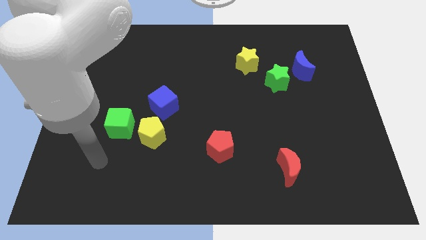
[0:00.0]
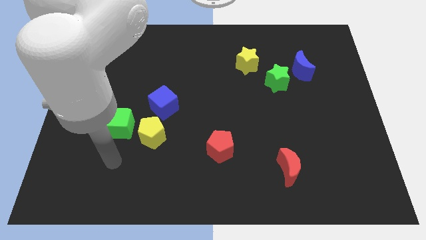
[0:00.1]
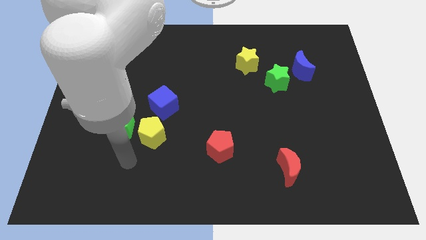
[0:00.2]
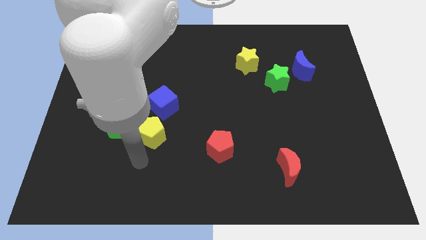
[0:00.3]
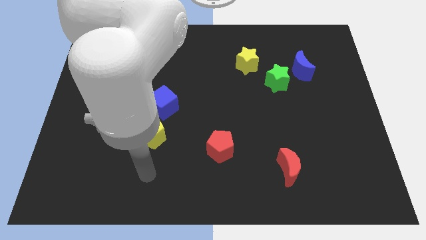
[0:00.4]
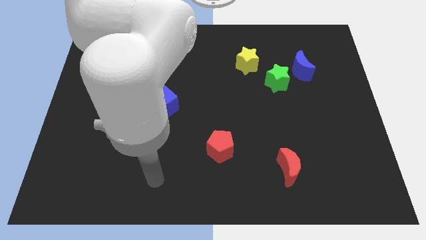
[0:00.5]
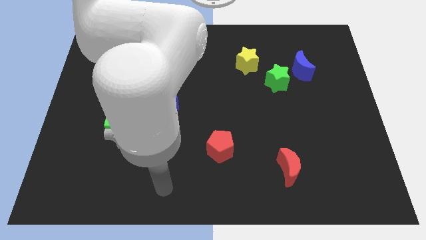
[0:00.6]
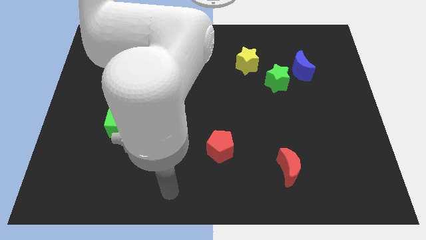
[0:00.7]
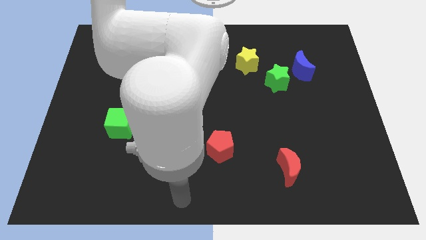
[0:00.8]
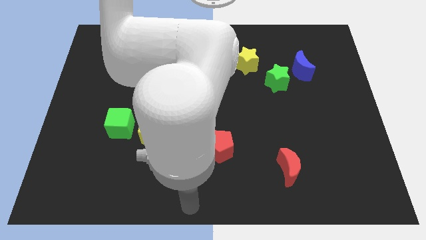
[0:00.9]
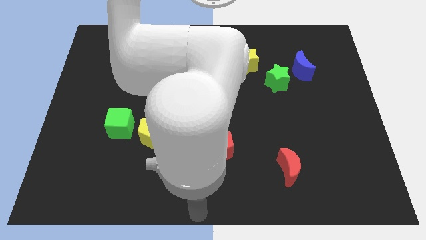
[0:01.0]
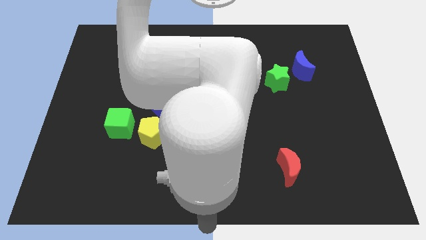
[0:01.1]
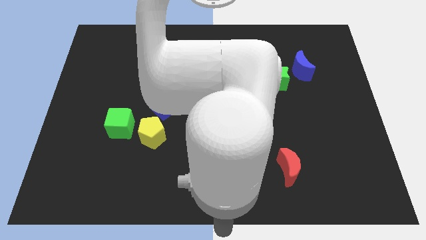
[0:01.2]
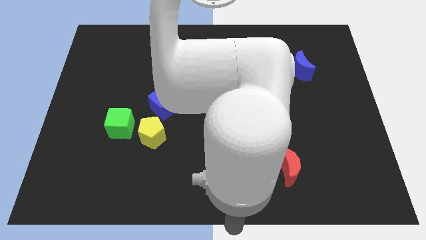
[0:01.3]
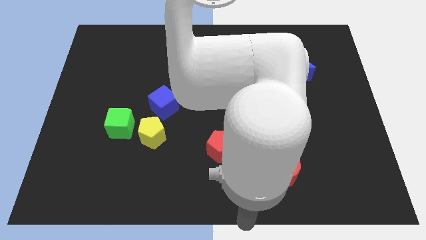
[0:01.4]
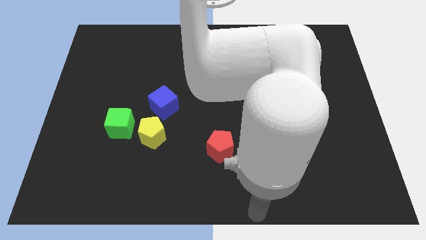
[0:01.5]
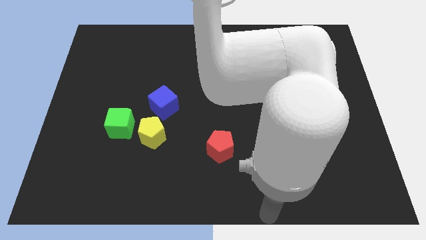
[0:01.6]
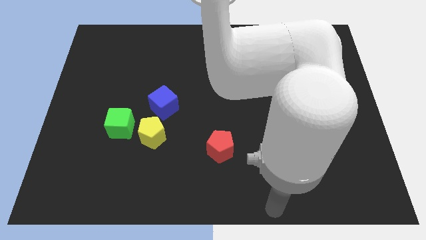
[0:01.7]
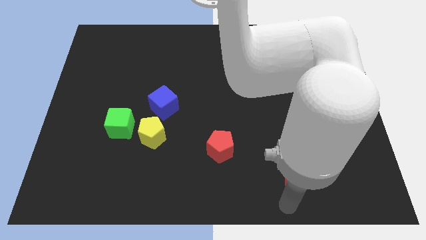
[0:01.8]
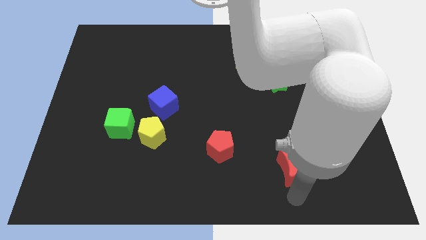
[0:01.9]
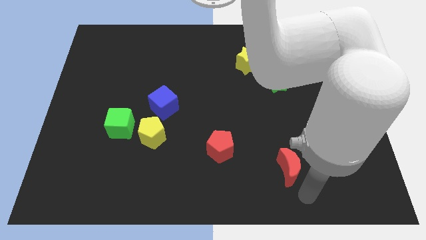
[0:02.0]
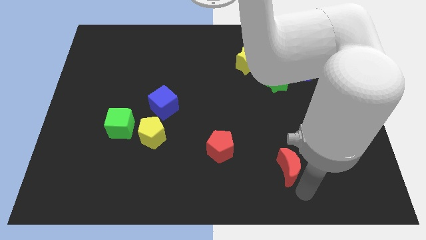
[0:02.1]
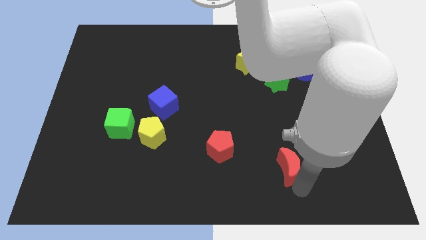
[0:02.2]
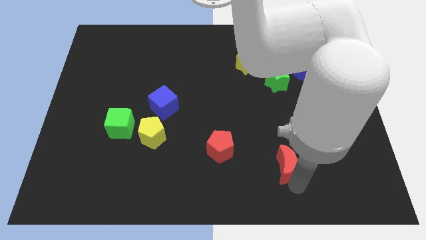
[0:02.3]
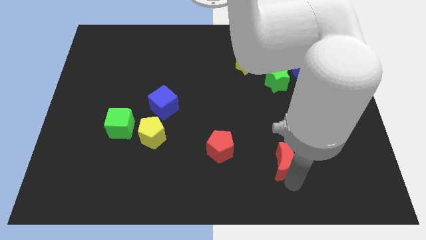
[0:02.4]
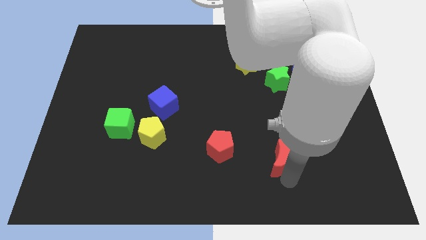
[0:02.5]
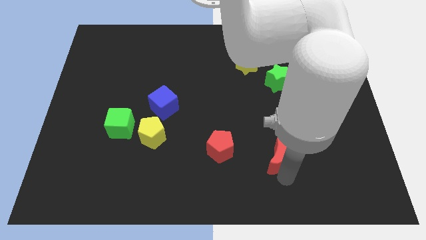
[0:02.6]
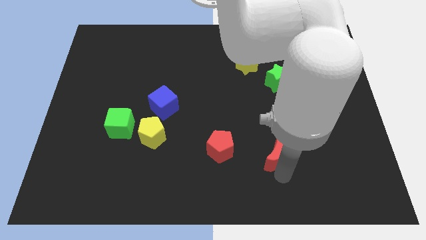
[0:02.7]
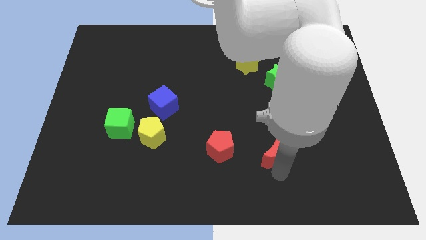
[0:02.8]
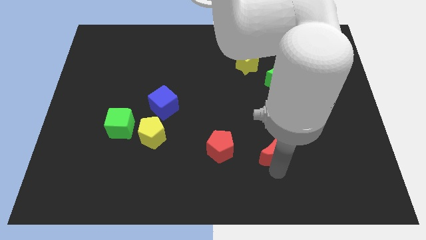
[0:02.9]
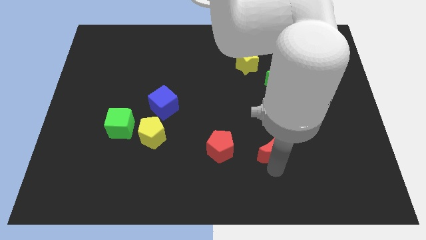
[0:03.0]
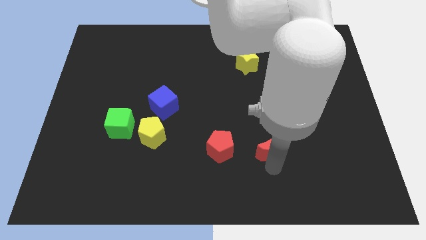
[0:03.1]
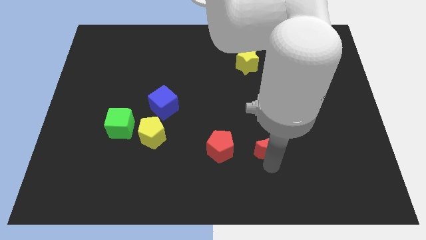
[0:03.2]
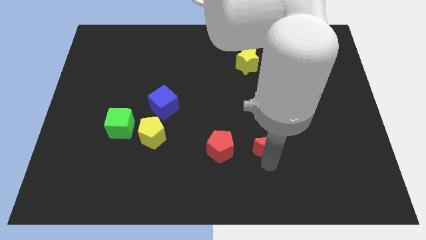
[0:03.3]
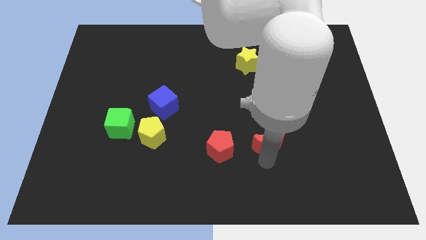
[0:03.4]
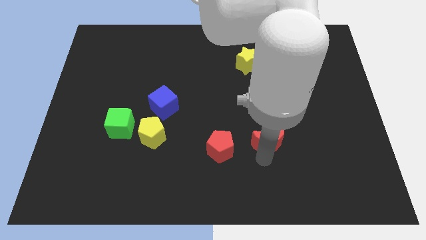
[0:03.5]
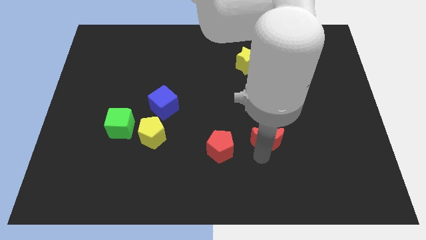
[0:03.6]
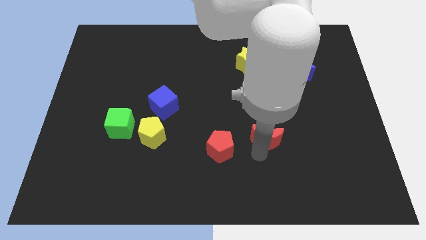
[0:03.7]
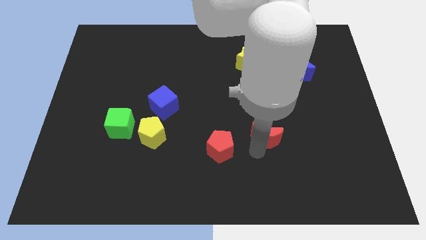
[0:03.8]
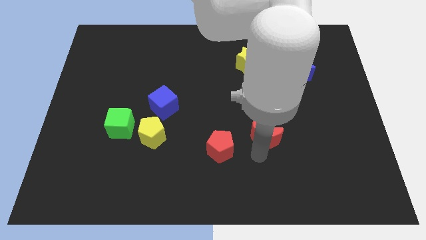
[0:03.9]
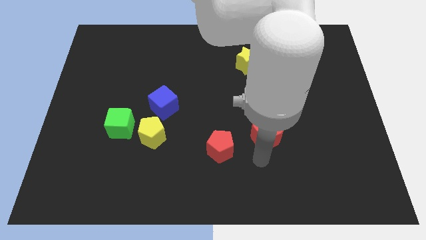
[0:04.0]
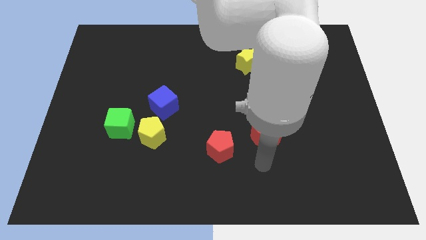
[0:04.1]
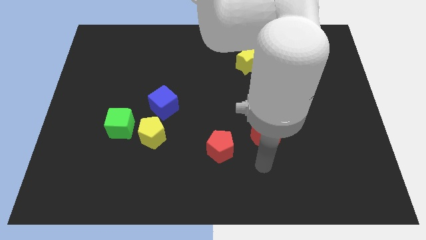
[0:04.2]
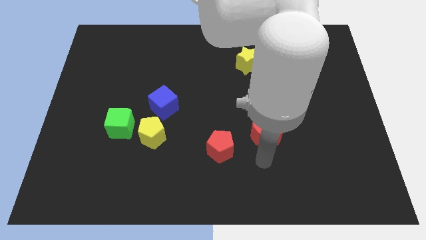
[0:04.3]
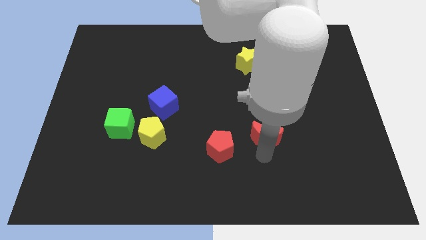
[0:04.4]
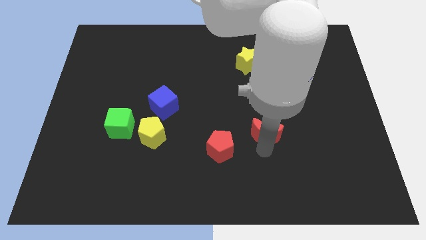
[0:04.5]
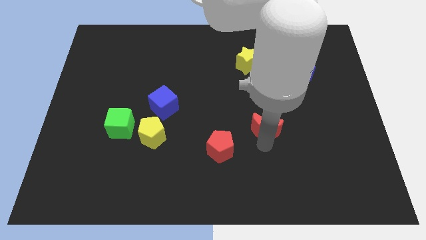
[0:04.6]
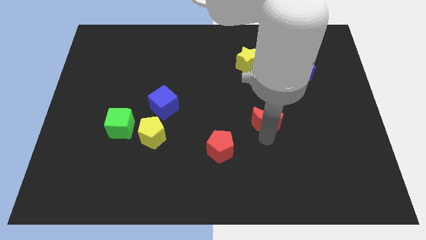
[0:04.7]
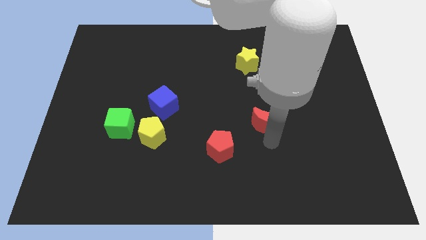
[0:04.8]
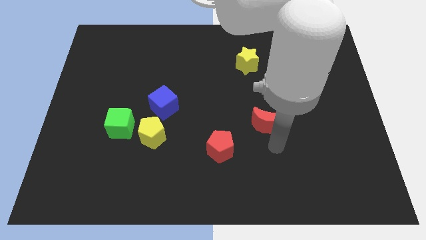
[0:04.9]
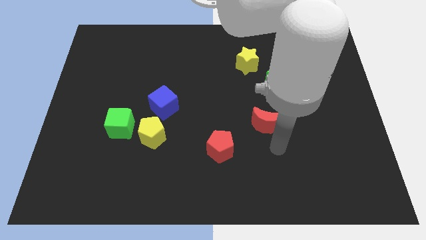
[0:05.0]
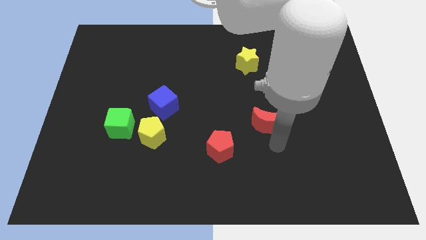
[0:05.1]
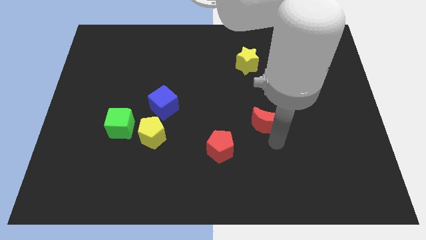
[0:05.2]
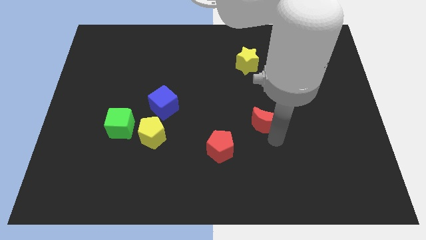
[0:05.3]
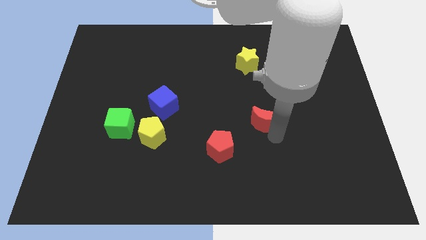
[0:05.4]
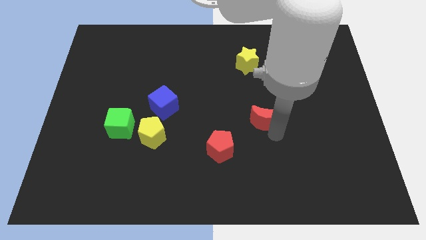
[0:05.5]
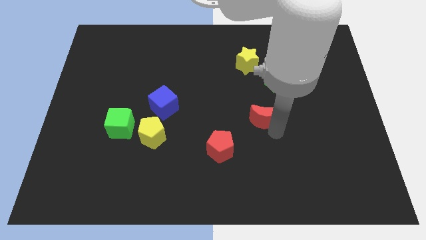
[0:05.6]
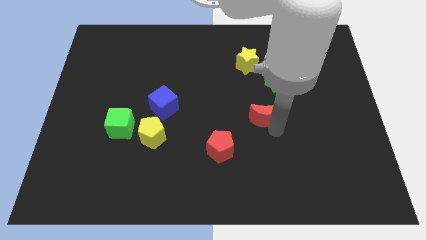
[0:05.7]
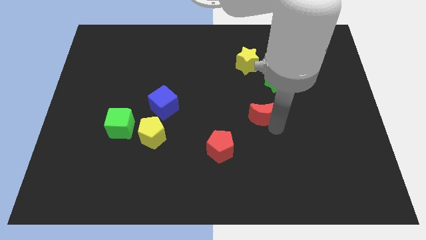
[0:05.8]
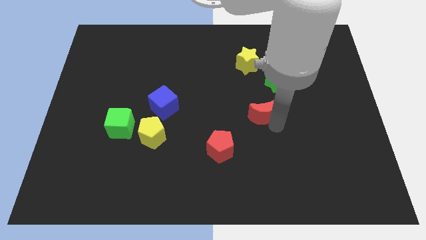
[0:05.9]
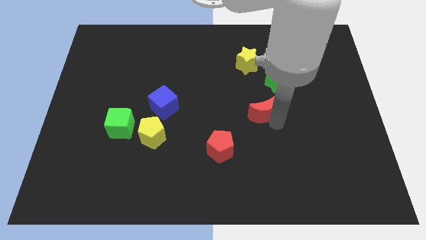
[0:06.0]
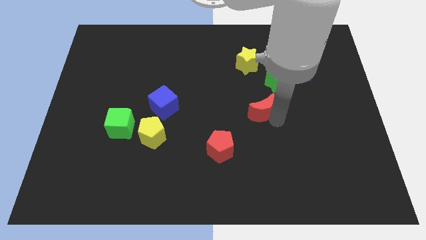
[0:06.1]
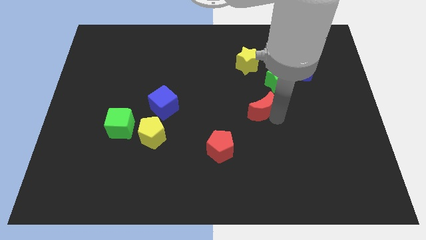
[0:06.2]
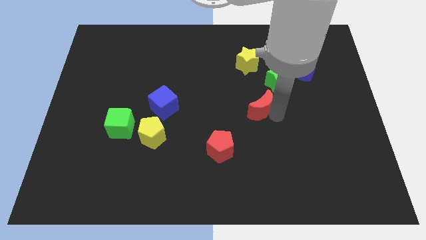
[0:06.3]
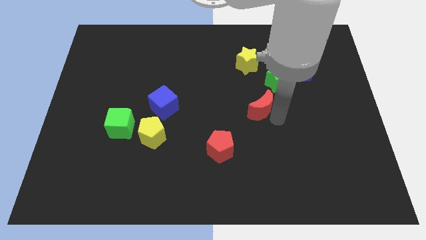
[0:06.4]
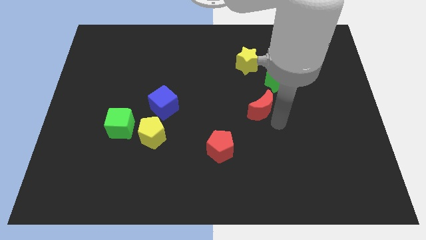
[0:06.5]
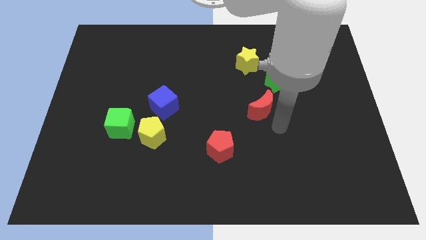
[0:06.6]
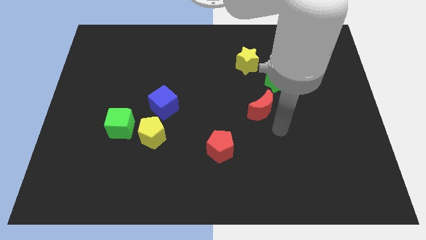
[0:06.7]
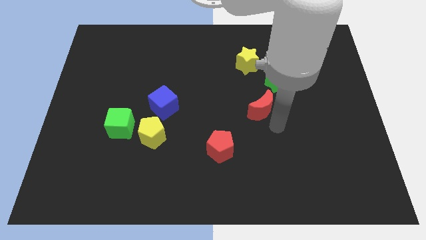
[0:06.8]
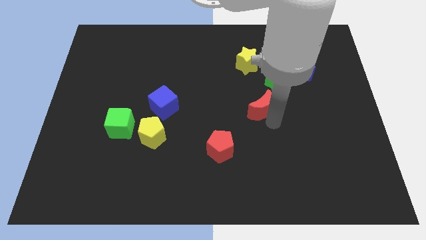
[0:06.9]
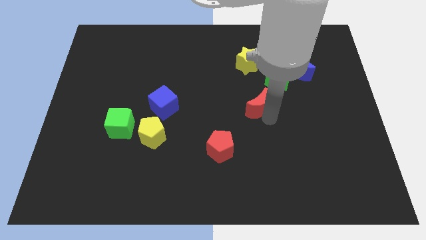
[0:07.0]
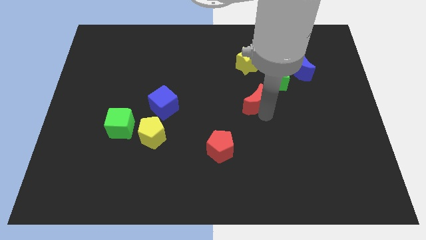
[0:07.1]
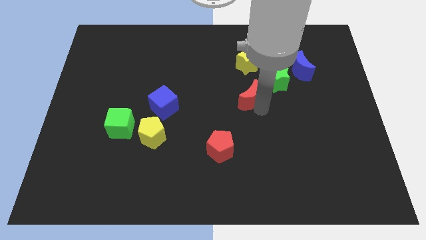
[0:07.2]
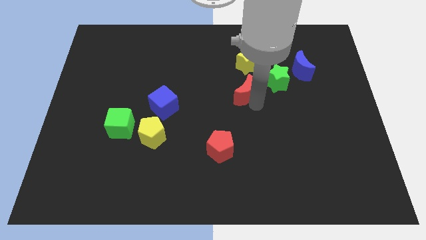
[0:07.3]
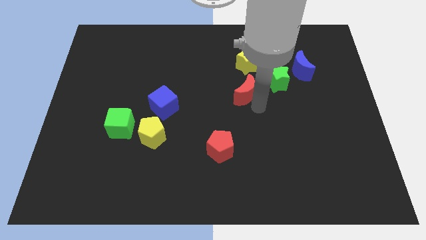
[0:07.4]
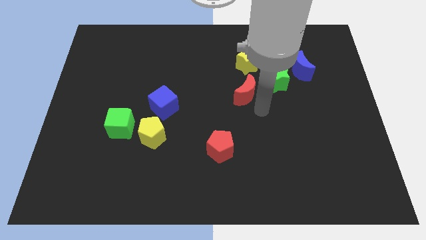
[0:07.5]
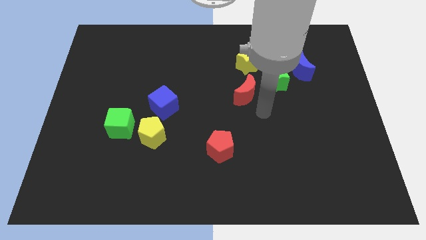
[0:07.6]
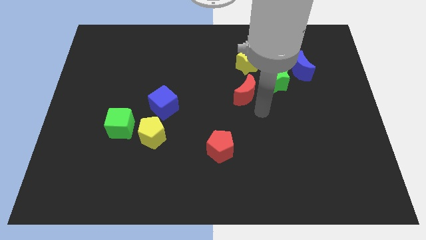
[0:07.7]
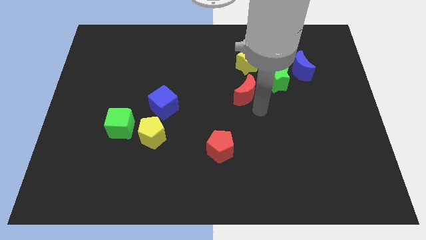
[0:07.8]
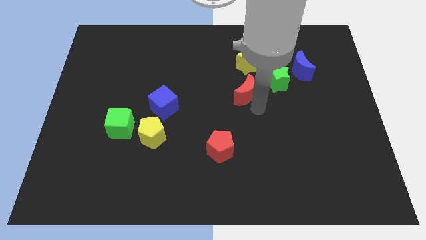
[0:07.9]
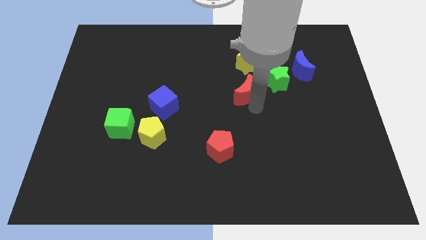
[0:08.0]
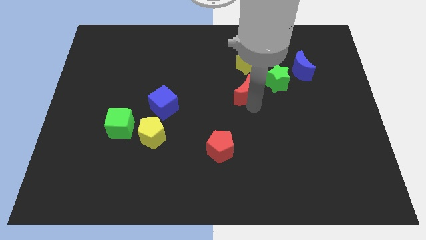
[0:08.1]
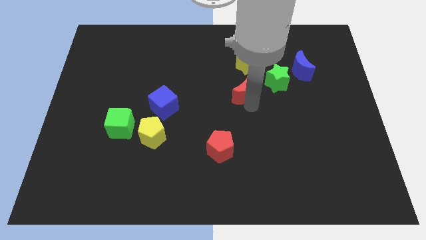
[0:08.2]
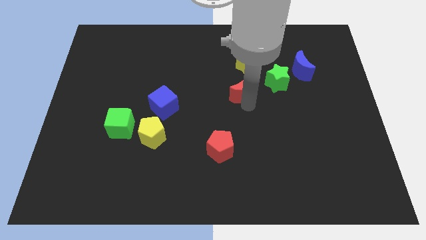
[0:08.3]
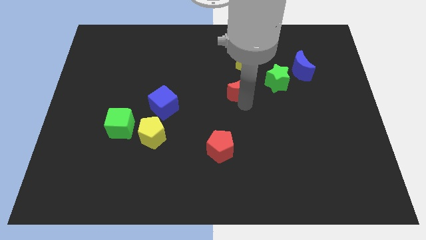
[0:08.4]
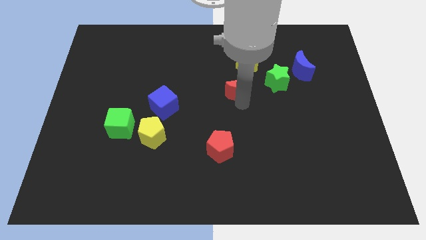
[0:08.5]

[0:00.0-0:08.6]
push the red moon diagonally down and to the left of the yellow star
